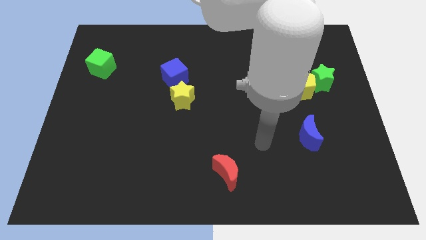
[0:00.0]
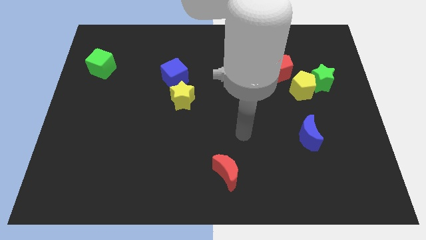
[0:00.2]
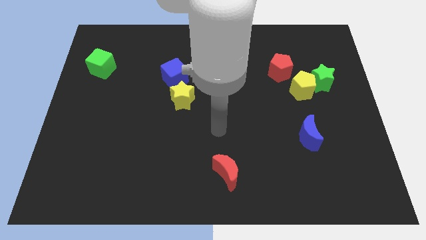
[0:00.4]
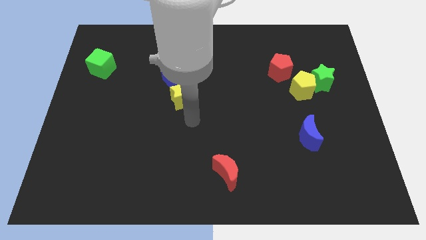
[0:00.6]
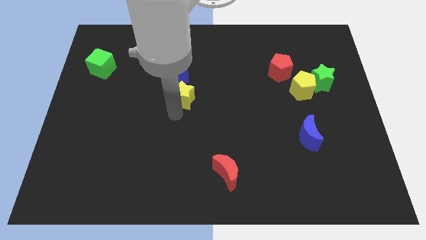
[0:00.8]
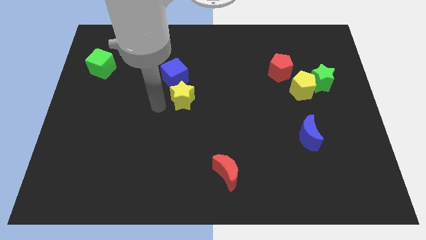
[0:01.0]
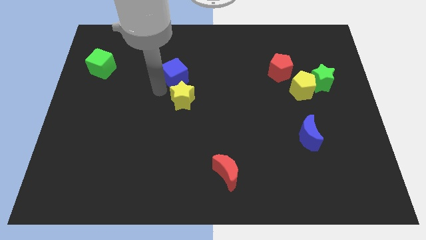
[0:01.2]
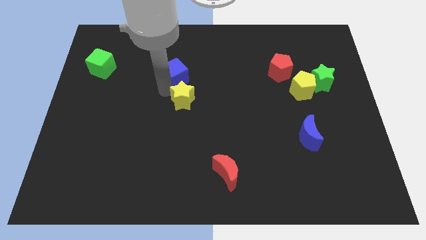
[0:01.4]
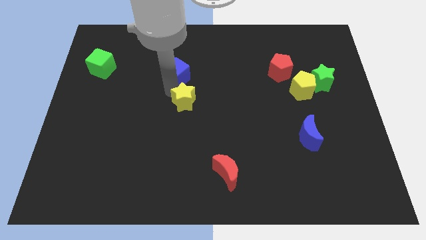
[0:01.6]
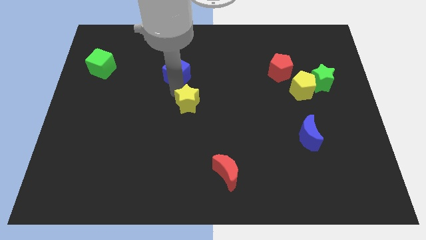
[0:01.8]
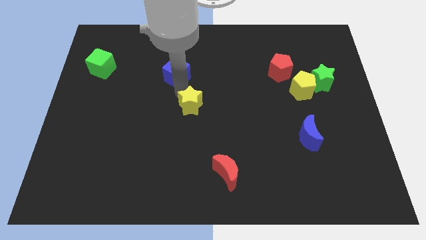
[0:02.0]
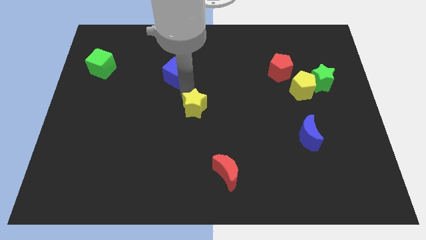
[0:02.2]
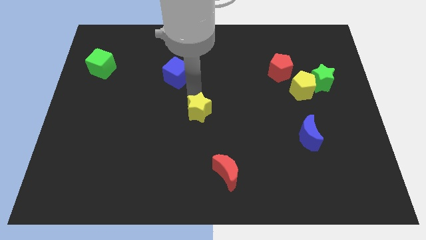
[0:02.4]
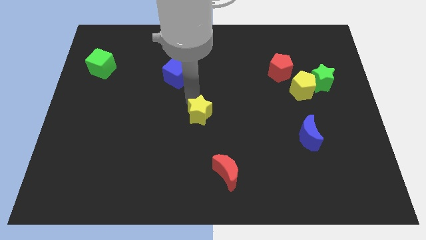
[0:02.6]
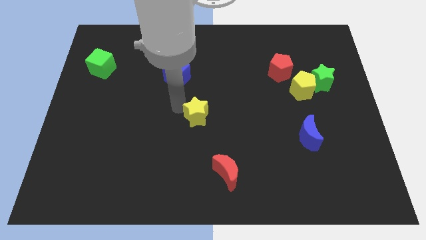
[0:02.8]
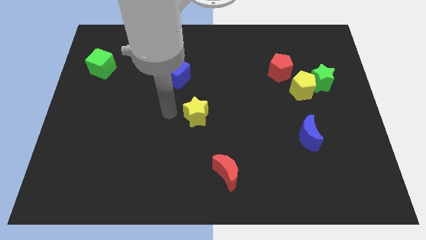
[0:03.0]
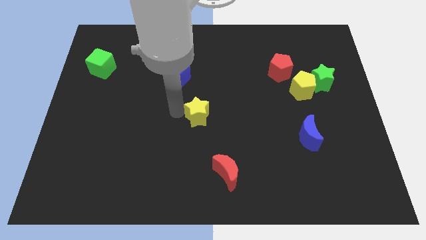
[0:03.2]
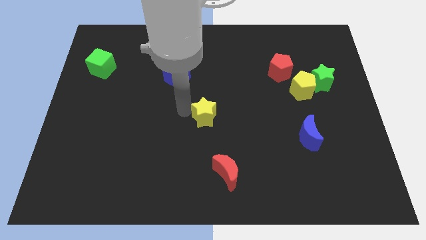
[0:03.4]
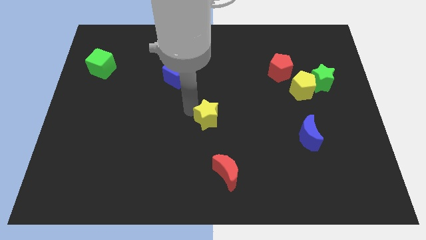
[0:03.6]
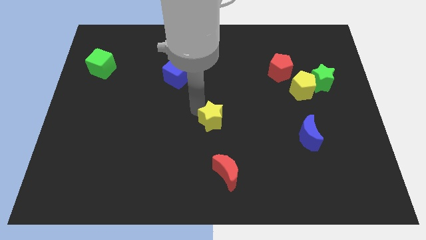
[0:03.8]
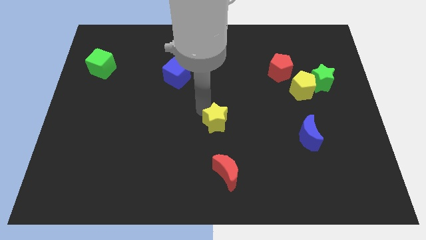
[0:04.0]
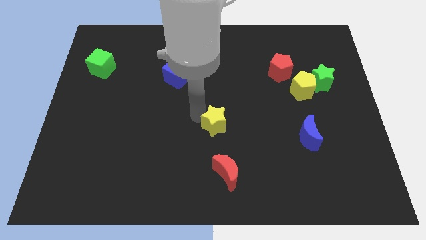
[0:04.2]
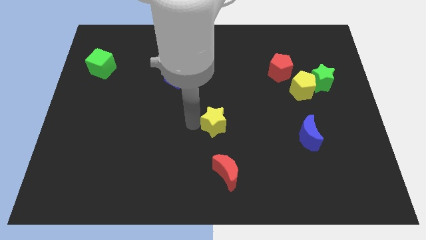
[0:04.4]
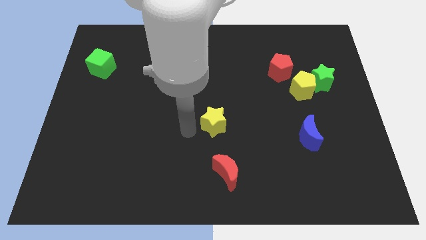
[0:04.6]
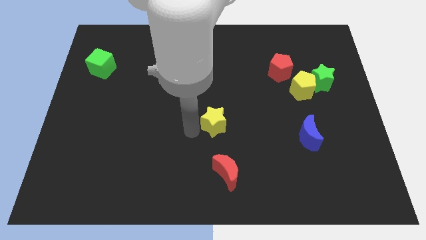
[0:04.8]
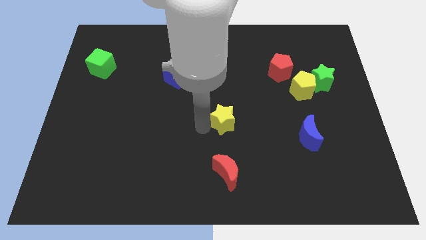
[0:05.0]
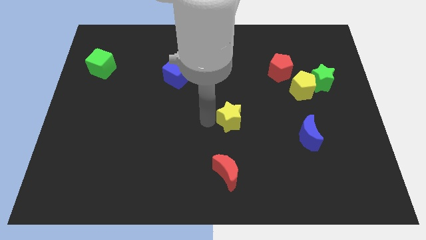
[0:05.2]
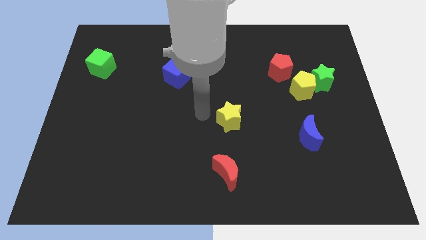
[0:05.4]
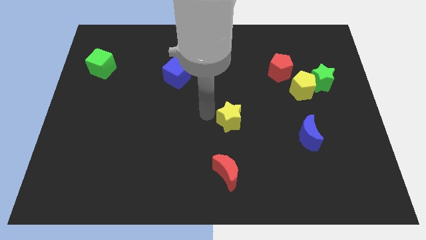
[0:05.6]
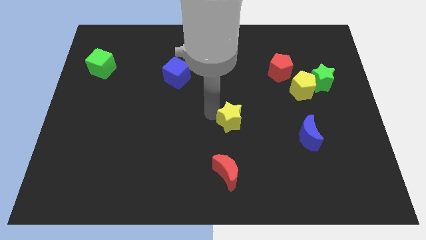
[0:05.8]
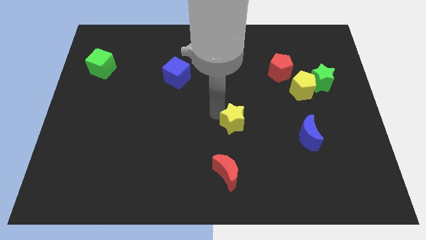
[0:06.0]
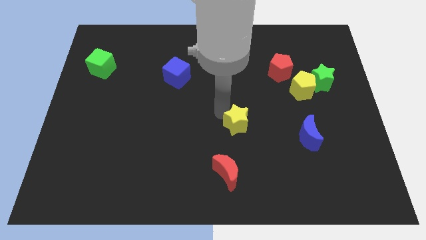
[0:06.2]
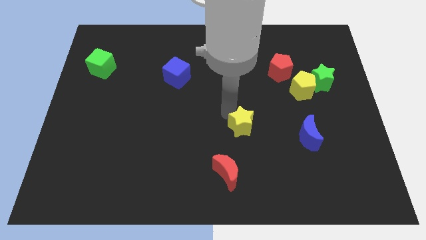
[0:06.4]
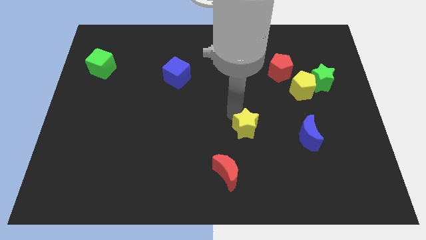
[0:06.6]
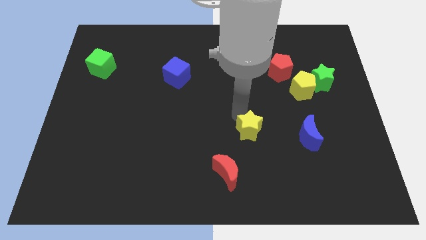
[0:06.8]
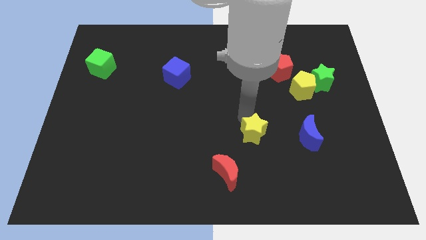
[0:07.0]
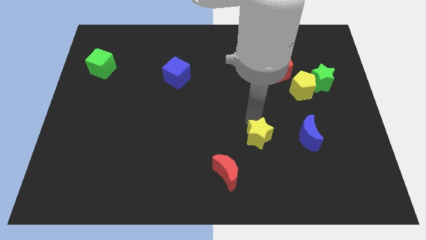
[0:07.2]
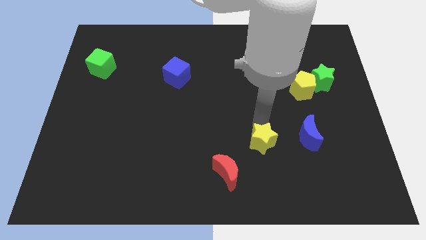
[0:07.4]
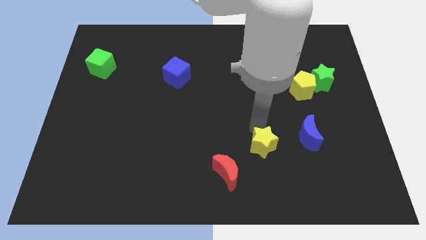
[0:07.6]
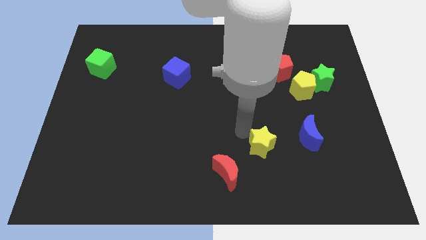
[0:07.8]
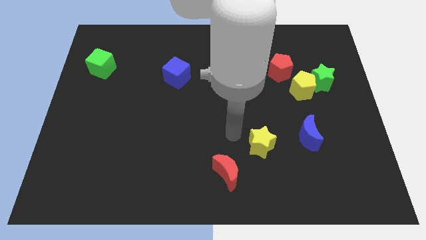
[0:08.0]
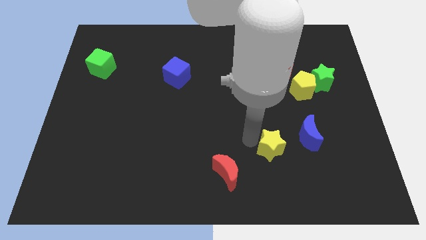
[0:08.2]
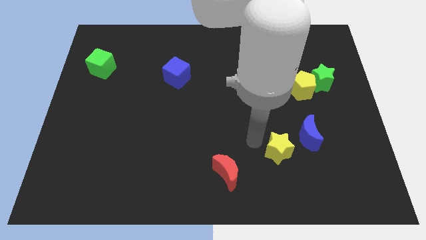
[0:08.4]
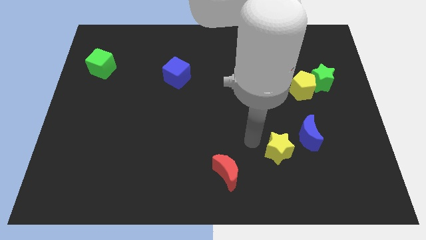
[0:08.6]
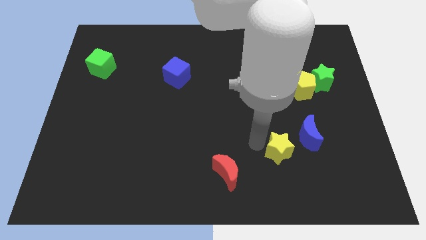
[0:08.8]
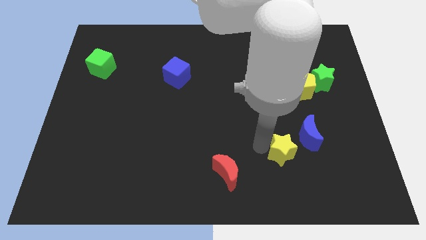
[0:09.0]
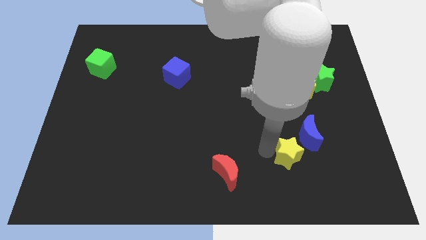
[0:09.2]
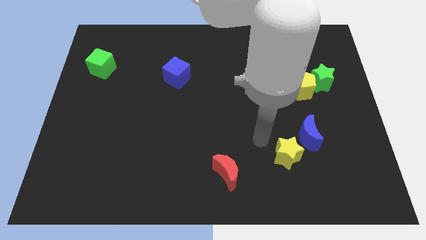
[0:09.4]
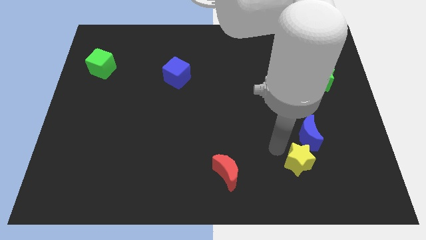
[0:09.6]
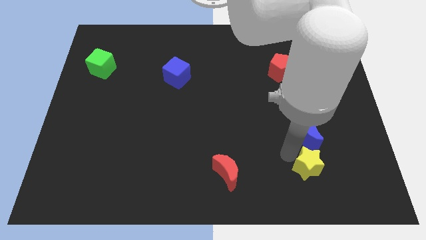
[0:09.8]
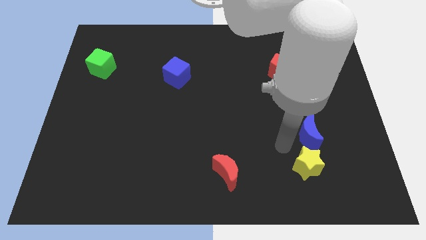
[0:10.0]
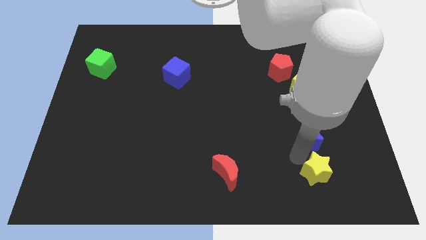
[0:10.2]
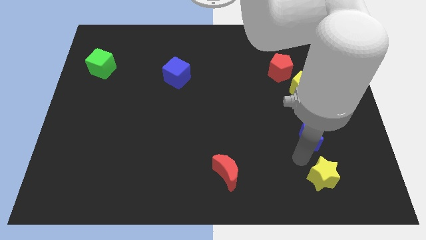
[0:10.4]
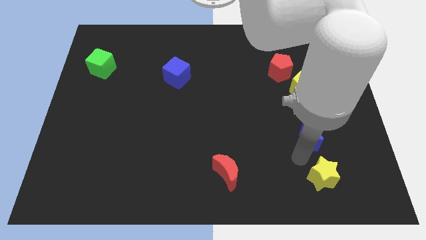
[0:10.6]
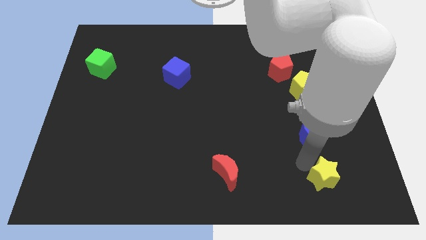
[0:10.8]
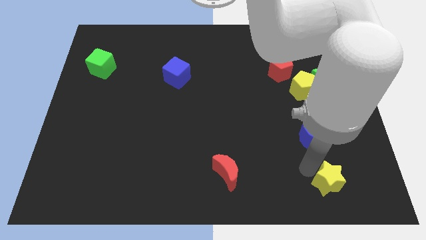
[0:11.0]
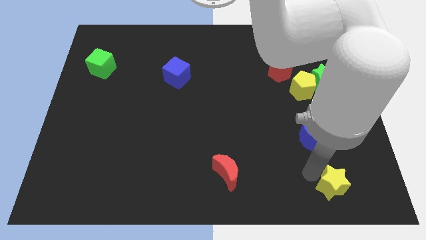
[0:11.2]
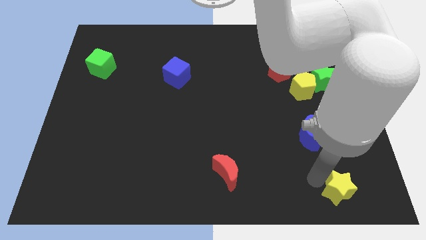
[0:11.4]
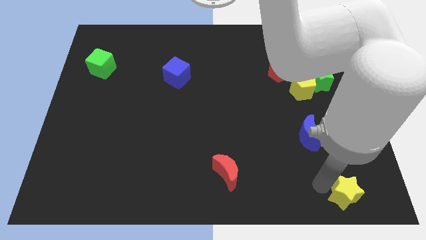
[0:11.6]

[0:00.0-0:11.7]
put the yellow star to the bottom right corner

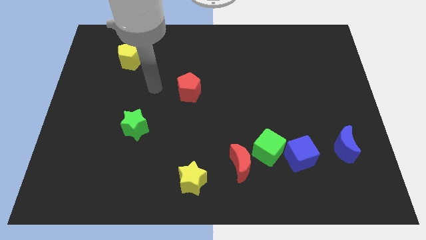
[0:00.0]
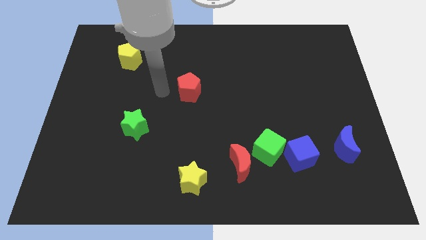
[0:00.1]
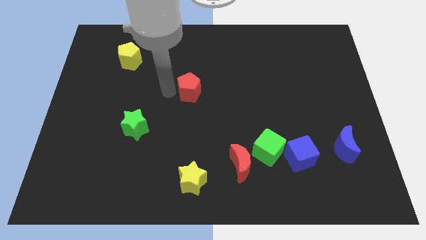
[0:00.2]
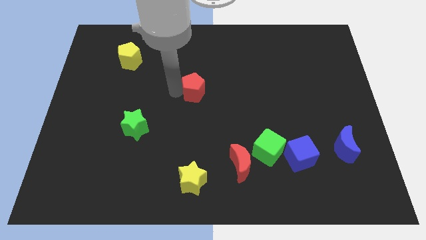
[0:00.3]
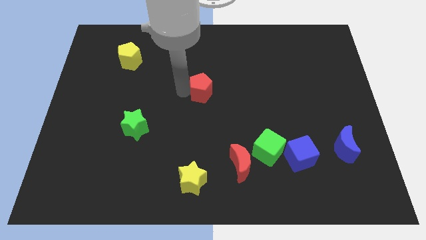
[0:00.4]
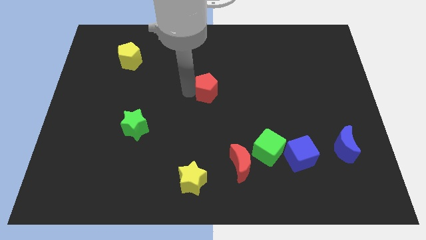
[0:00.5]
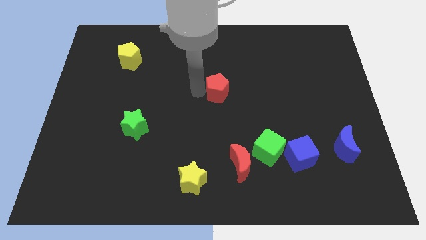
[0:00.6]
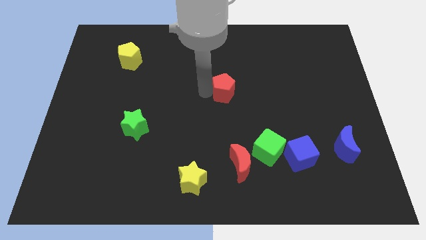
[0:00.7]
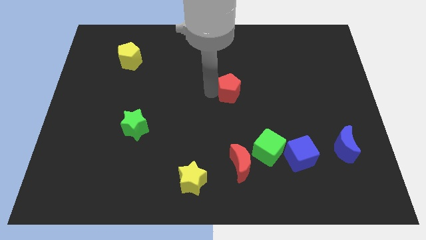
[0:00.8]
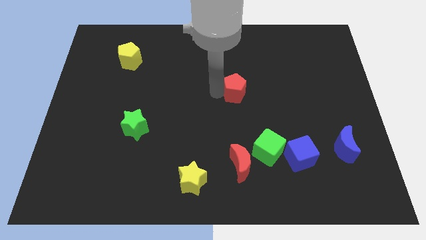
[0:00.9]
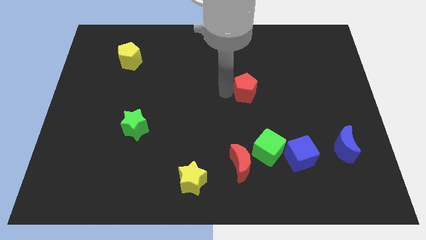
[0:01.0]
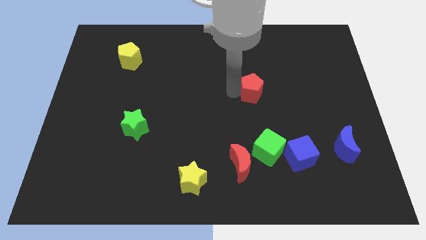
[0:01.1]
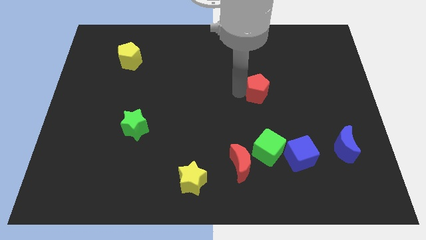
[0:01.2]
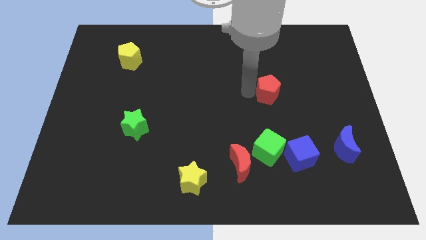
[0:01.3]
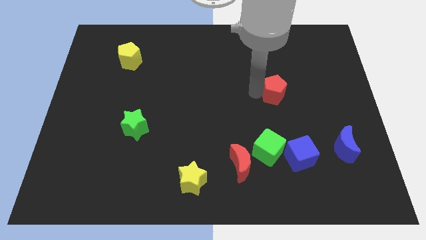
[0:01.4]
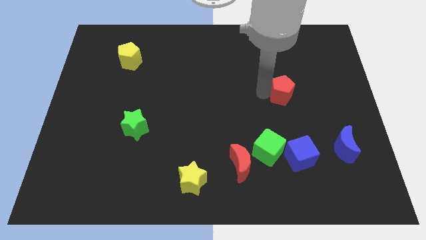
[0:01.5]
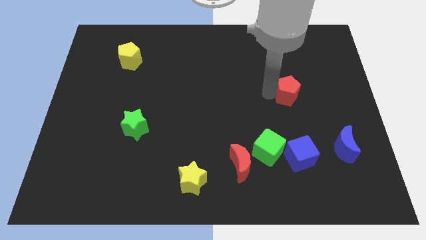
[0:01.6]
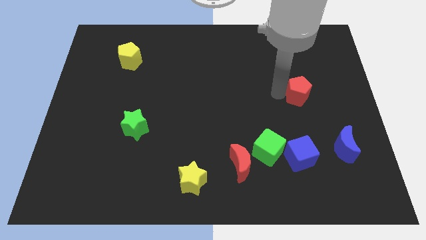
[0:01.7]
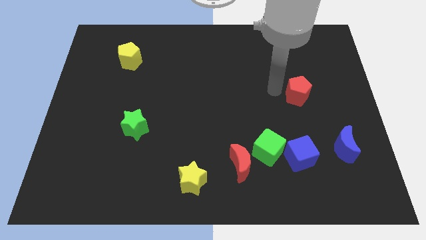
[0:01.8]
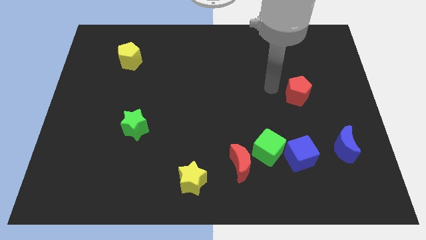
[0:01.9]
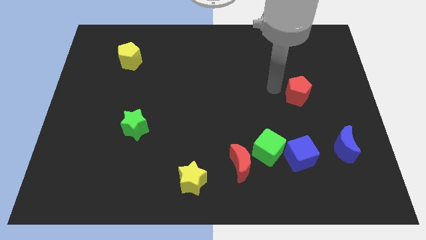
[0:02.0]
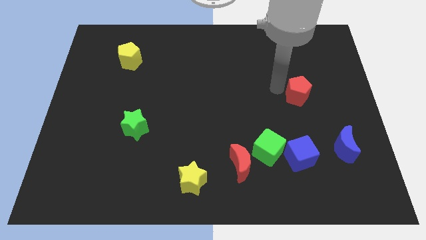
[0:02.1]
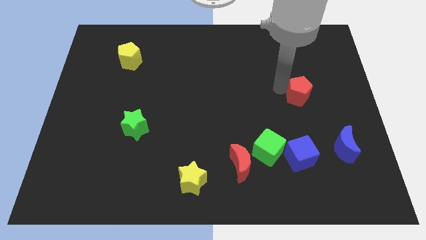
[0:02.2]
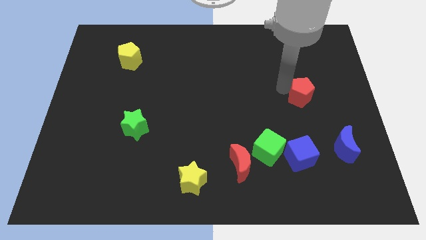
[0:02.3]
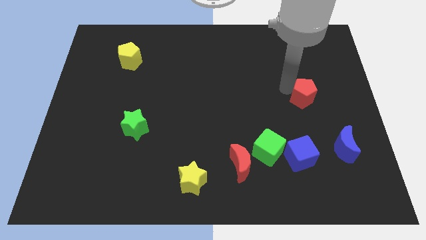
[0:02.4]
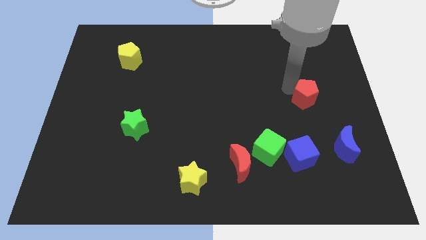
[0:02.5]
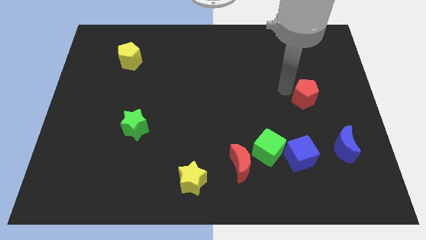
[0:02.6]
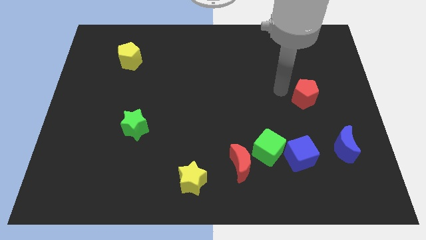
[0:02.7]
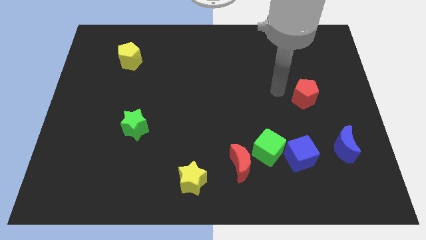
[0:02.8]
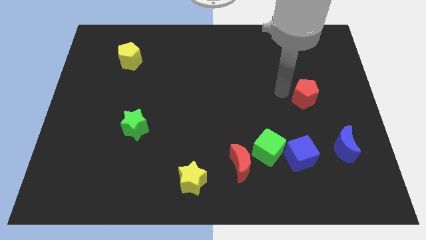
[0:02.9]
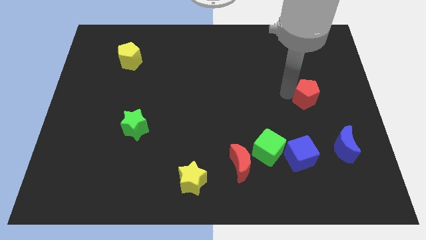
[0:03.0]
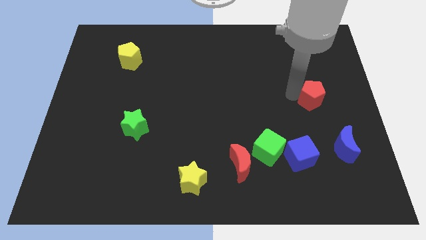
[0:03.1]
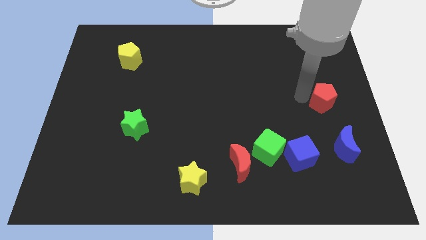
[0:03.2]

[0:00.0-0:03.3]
push the red pentagon to the right side of the board
